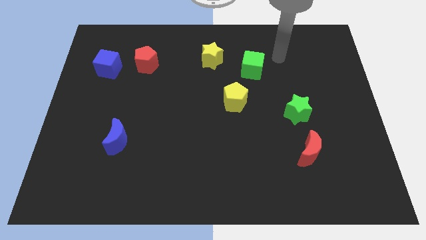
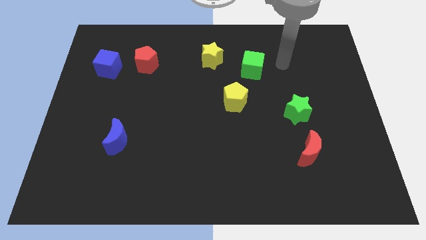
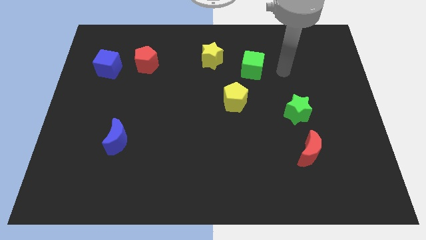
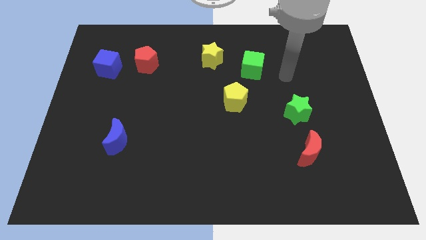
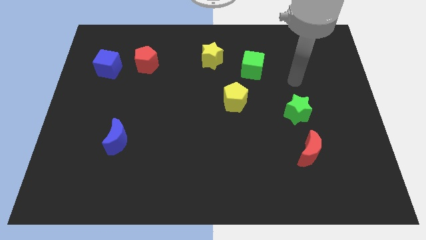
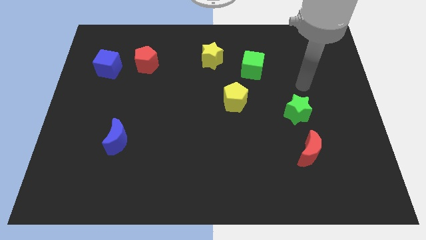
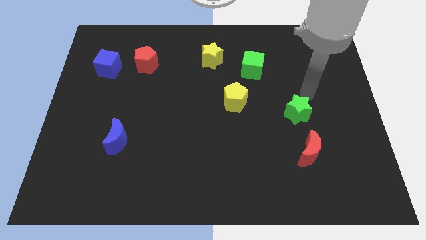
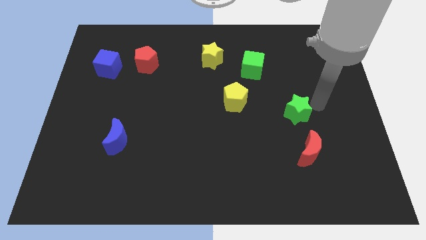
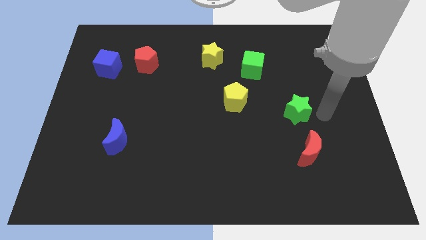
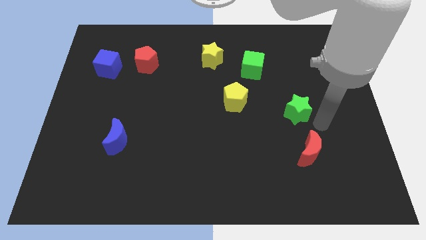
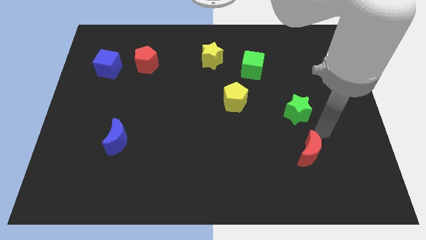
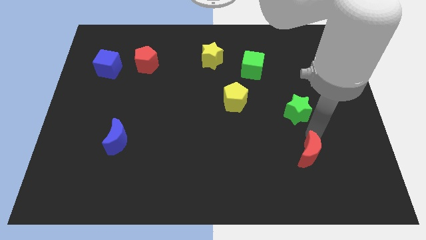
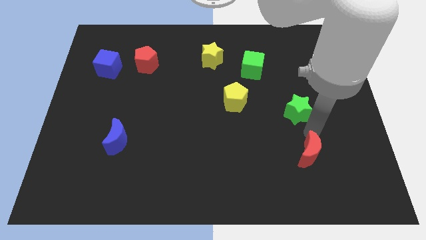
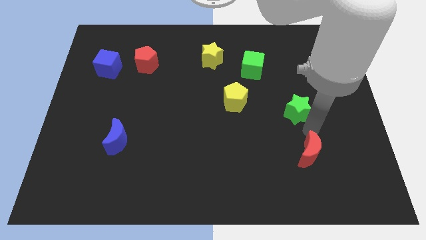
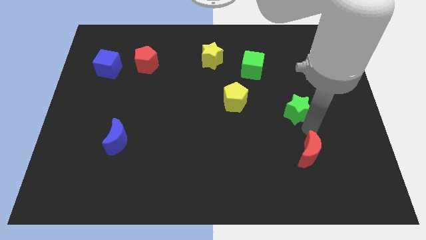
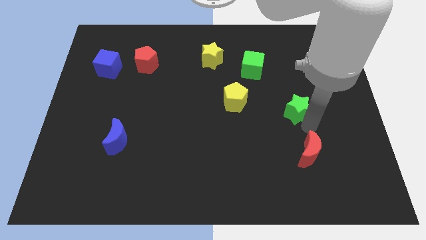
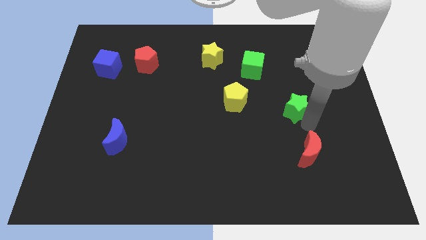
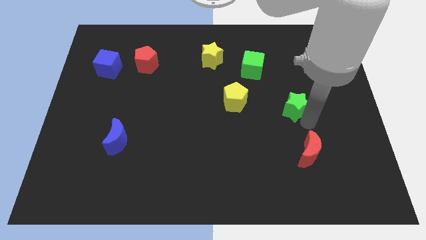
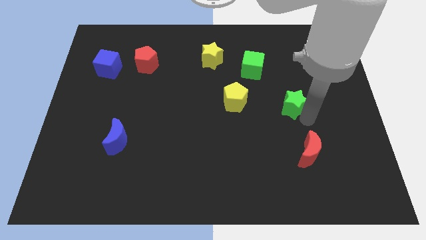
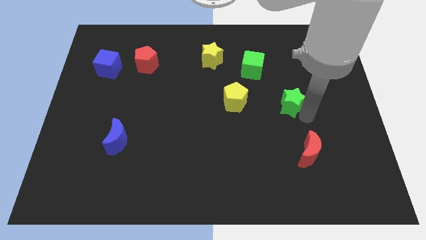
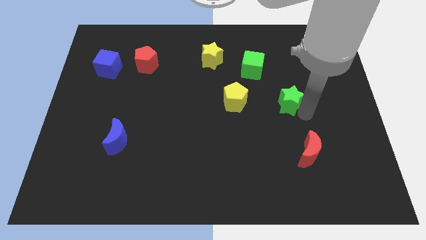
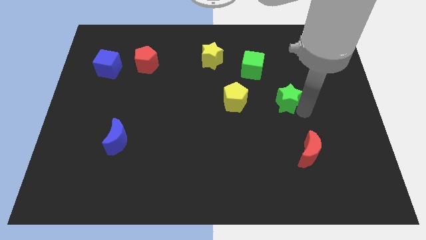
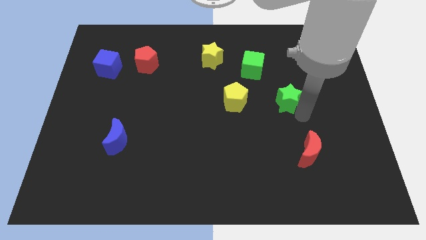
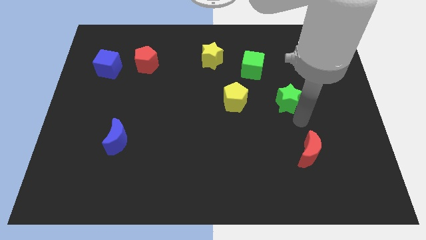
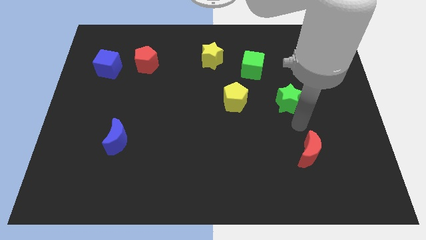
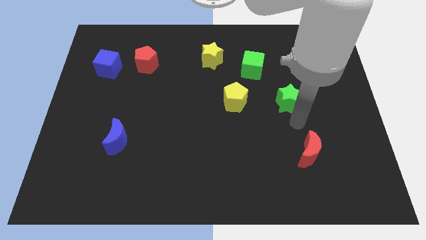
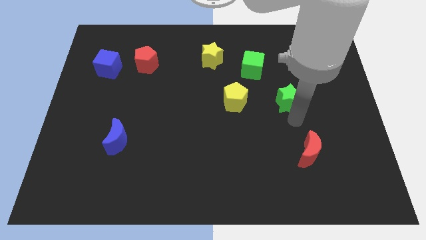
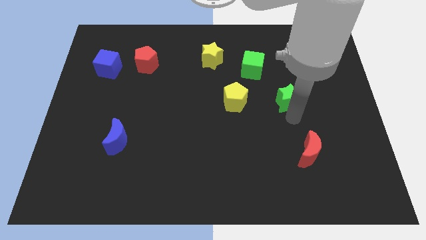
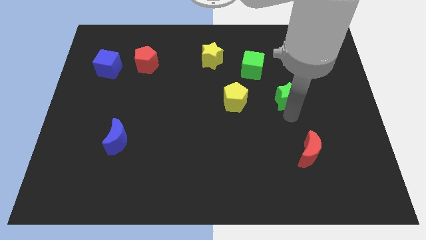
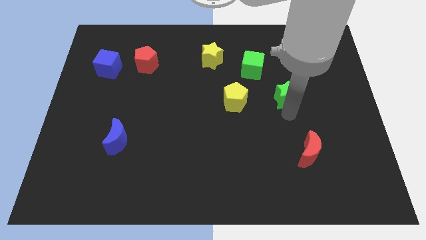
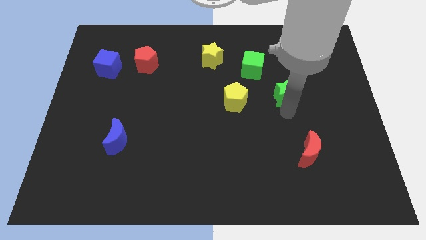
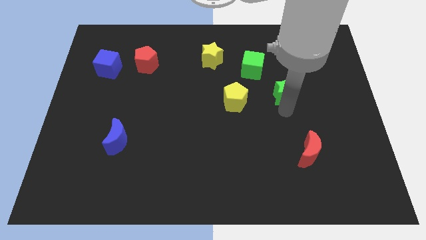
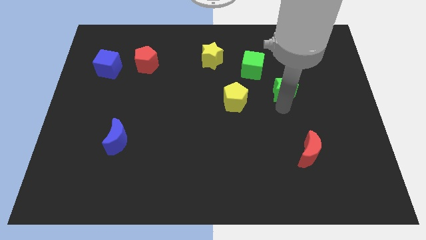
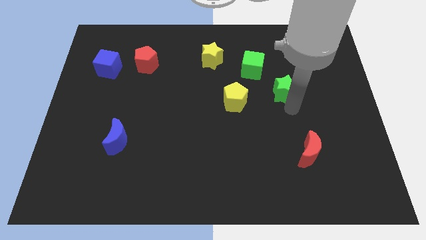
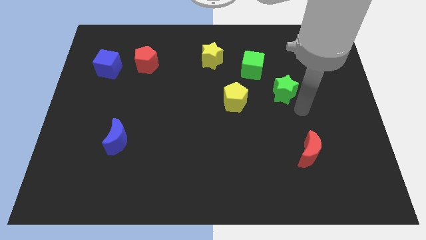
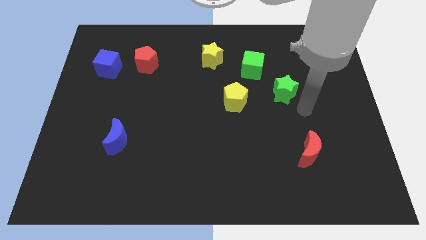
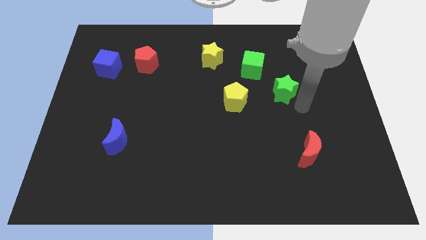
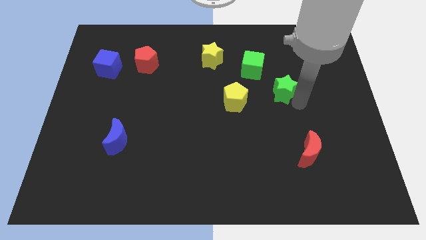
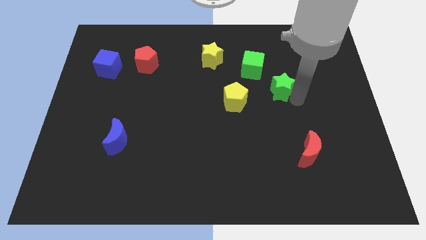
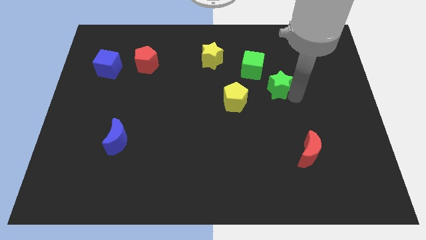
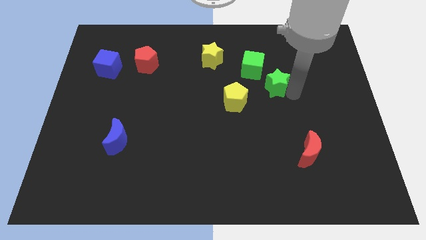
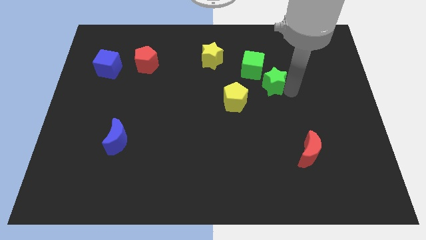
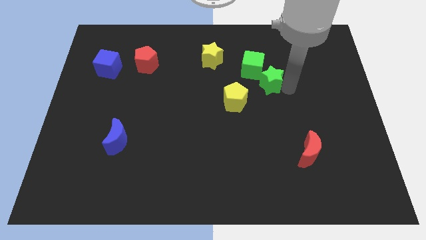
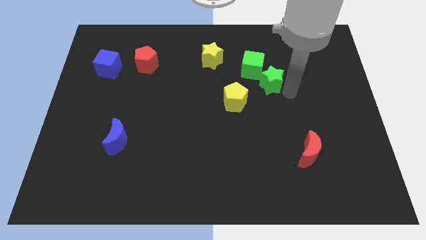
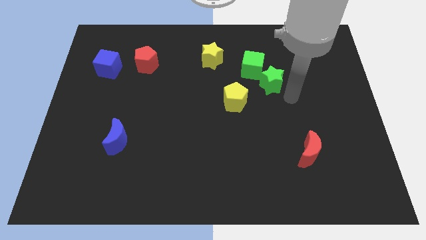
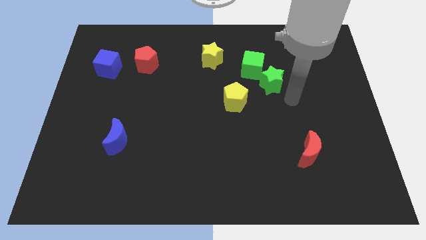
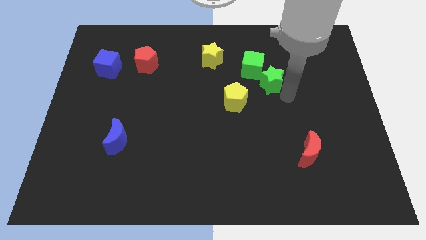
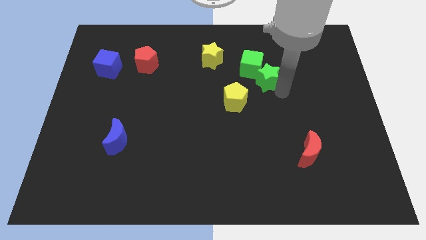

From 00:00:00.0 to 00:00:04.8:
push the green star close to the green cube

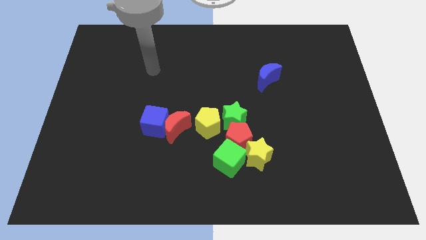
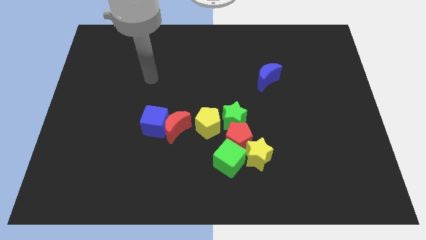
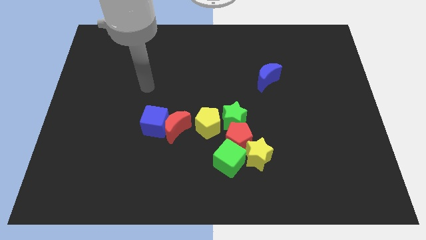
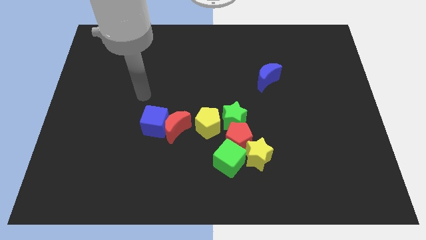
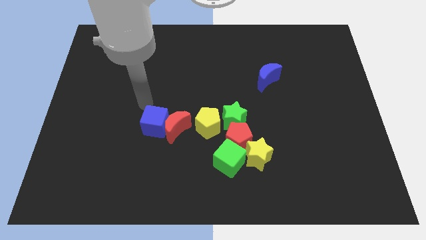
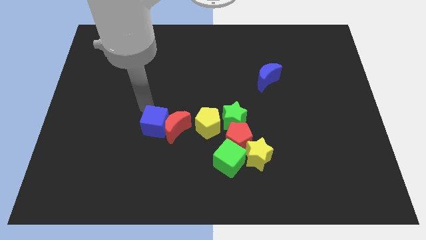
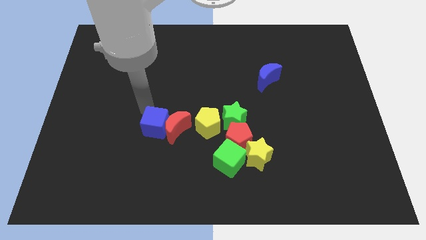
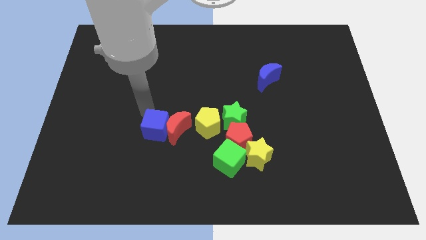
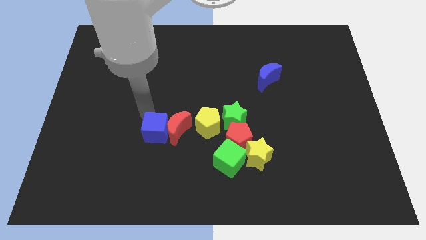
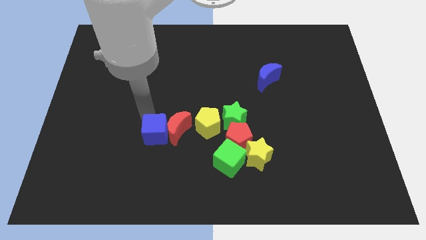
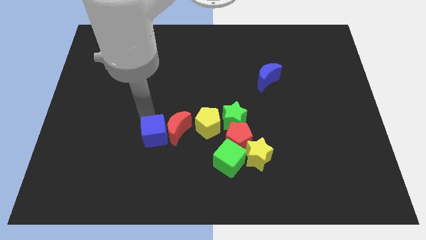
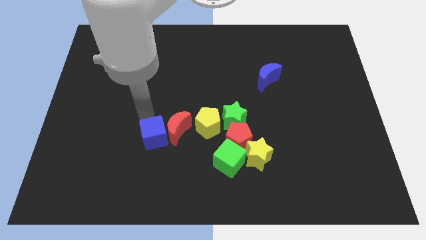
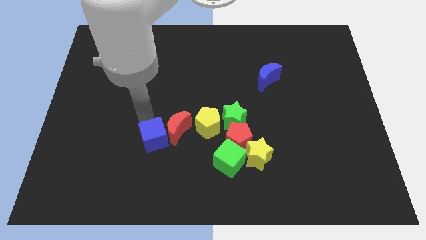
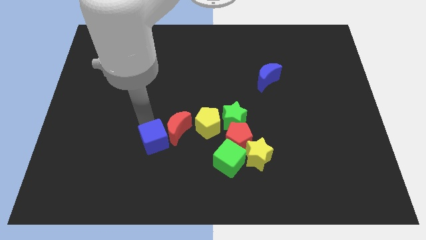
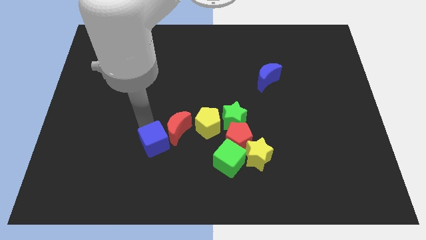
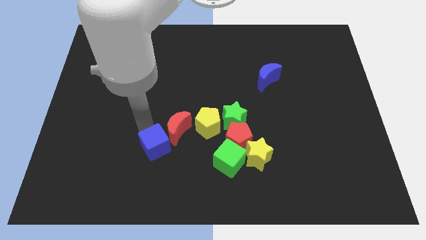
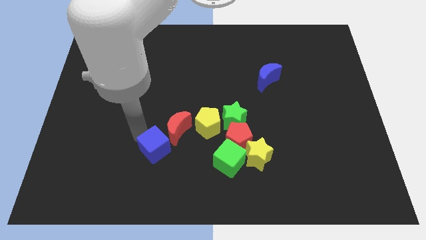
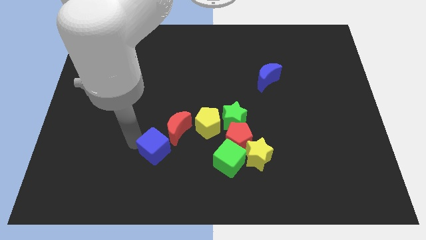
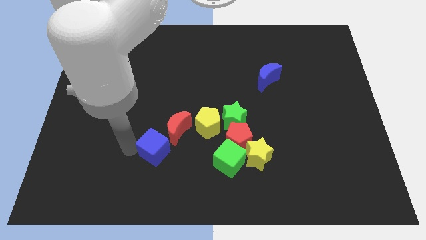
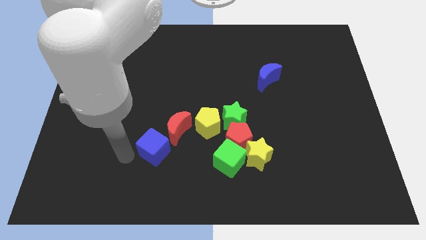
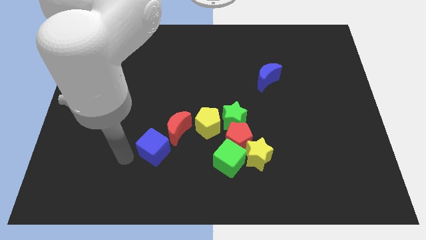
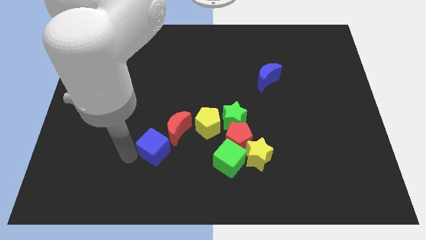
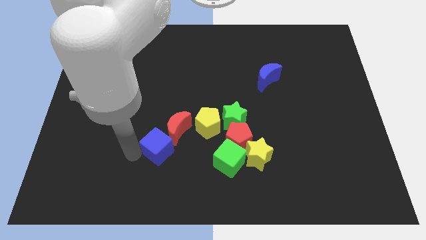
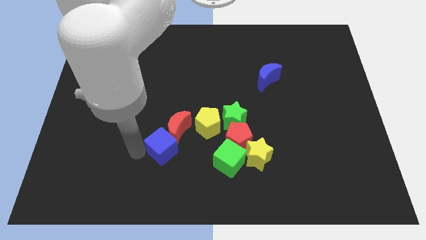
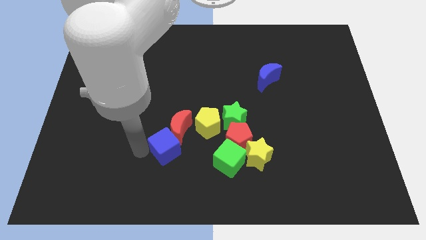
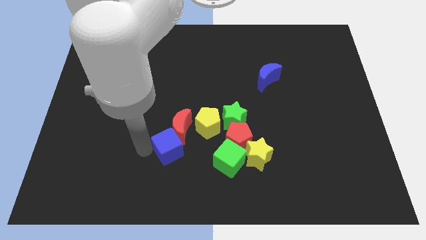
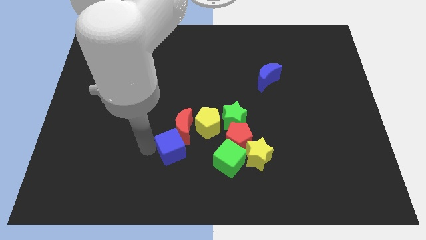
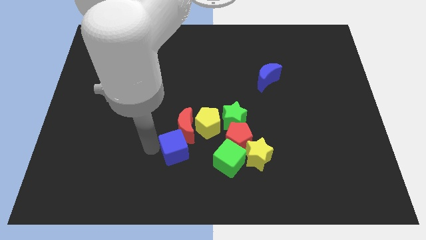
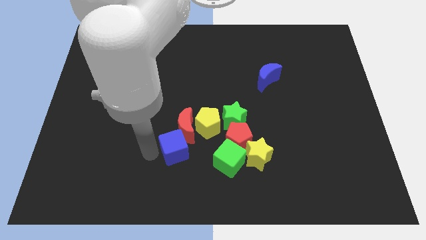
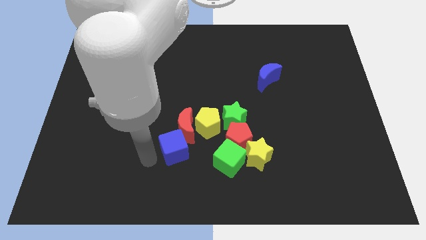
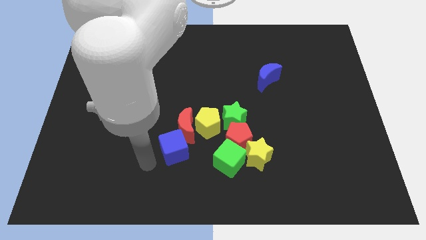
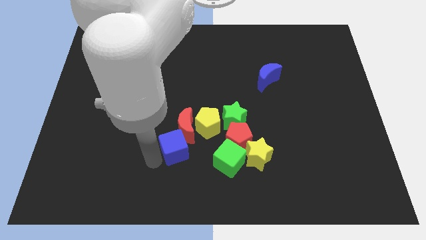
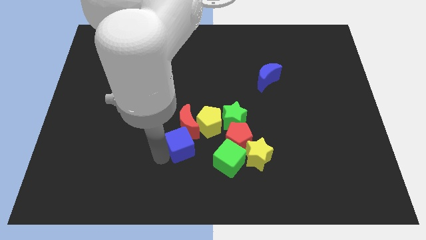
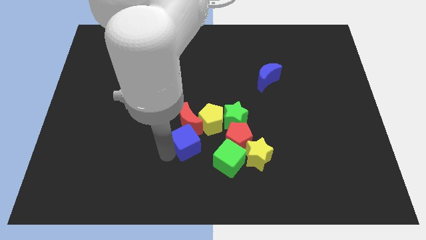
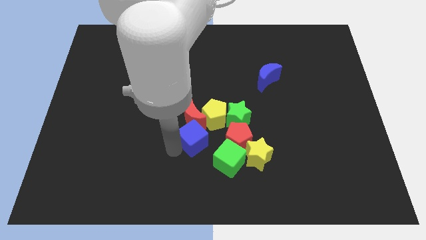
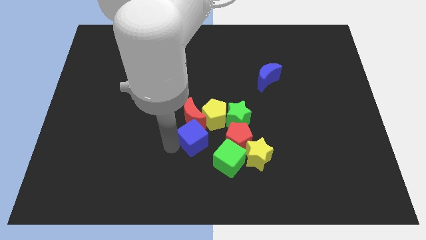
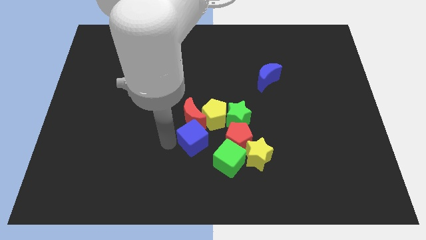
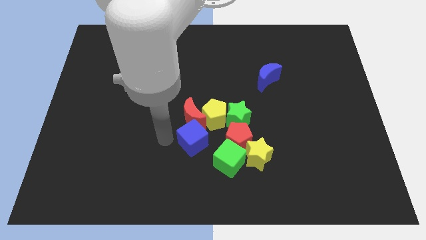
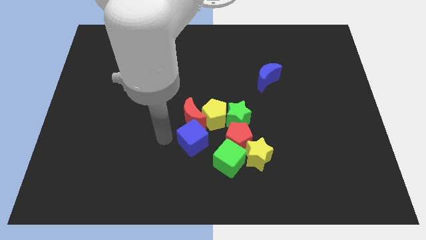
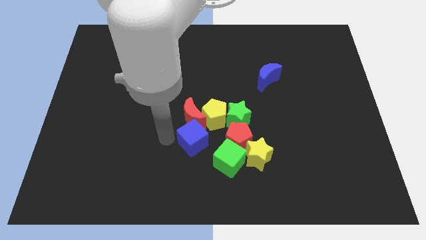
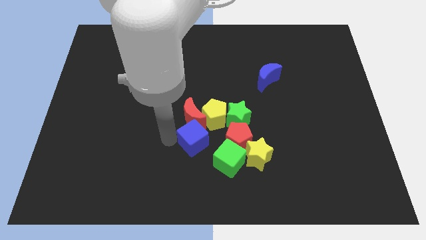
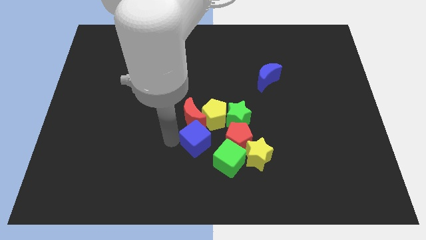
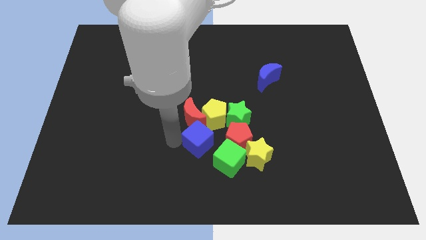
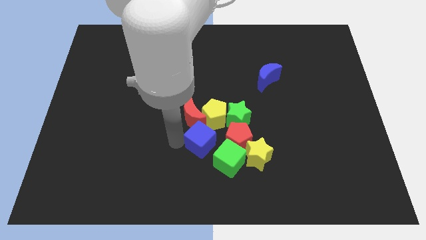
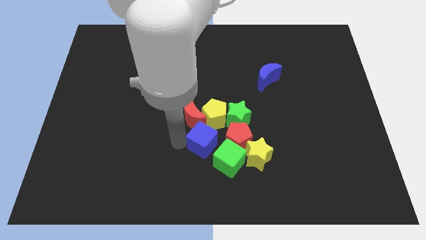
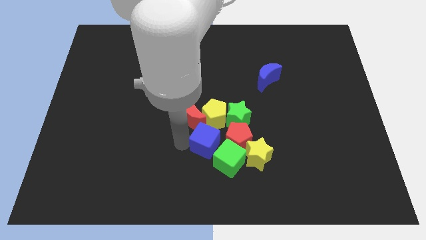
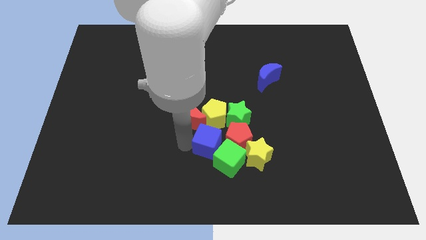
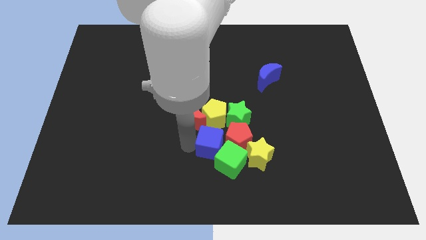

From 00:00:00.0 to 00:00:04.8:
slide the blue cube towards the red pentagon
